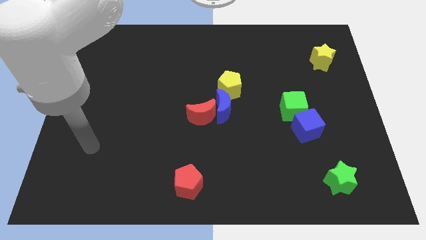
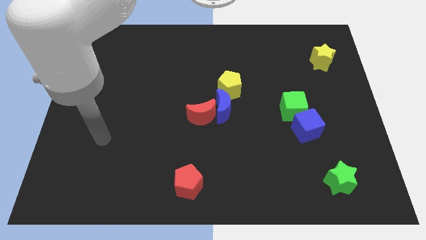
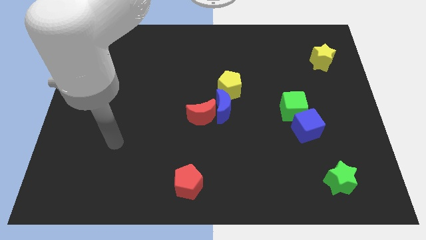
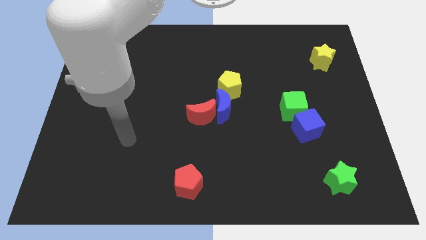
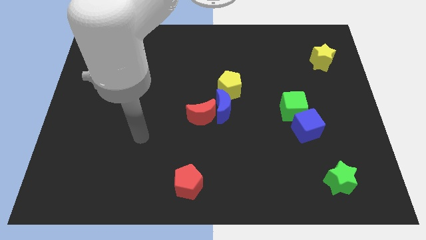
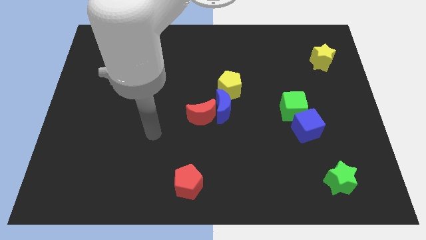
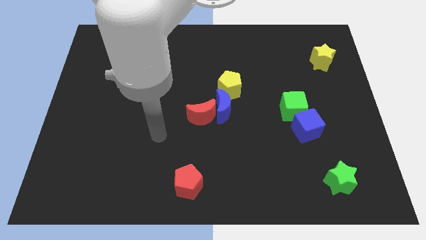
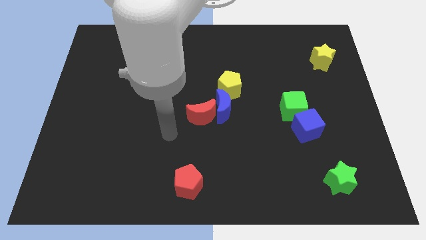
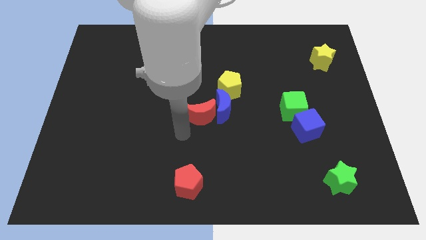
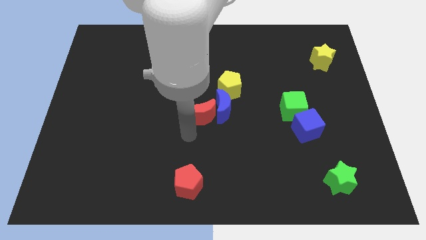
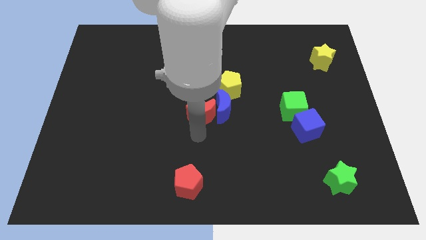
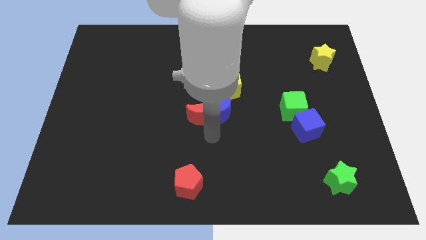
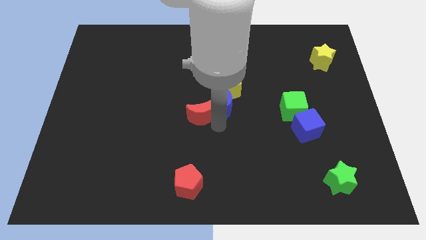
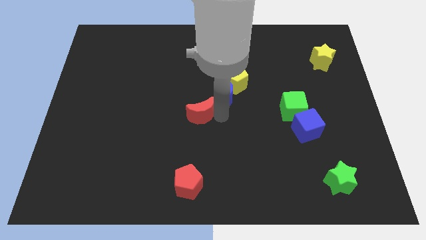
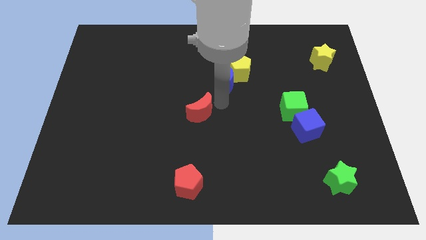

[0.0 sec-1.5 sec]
move the red moon away from the blue moon

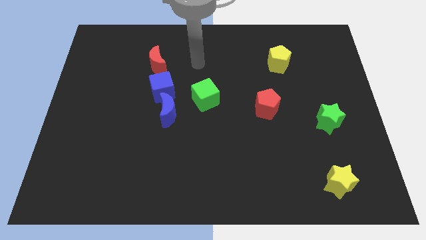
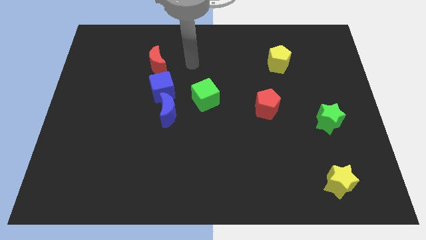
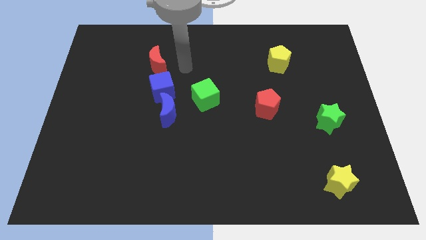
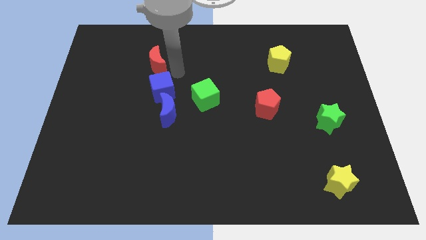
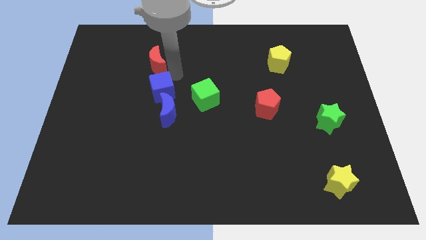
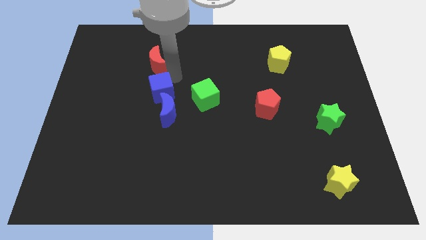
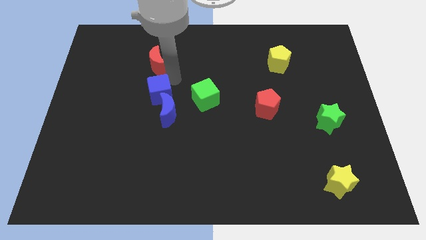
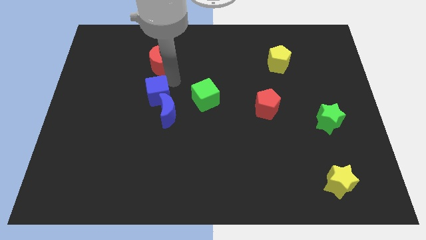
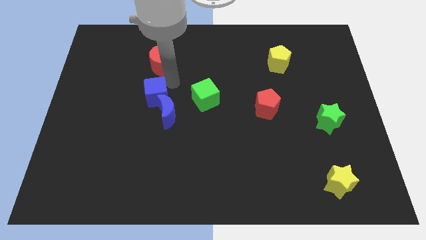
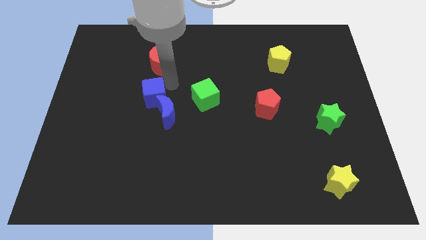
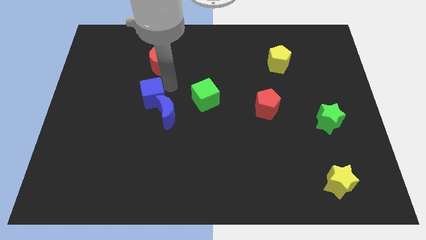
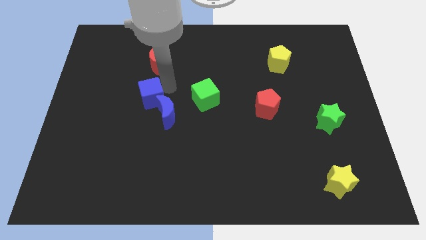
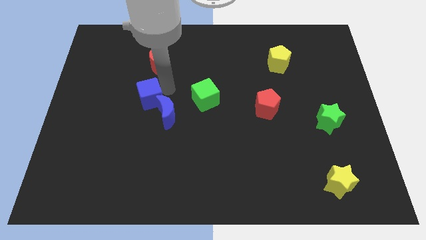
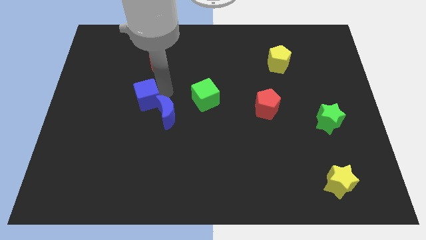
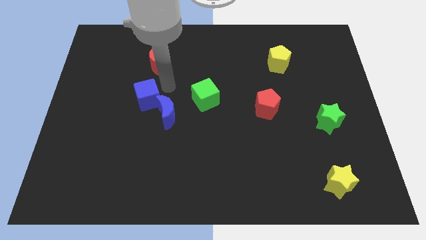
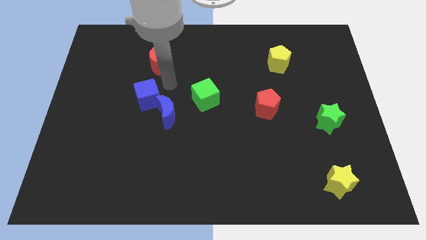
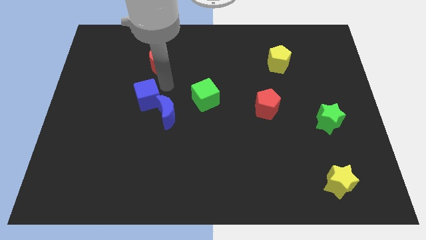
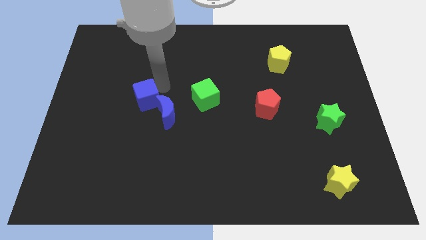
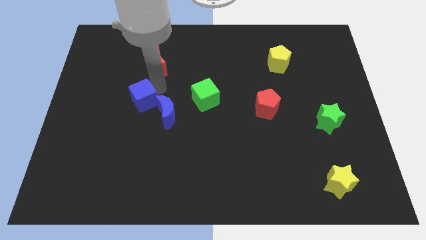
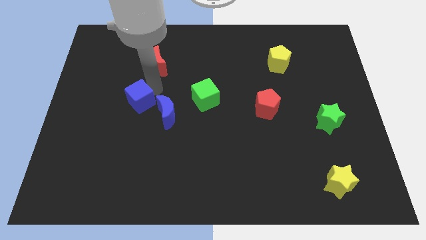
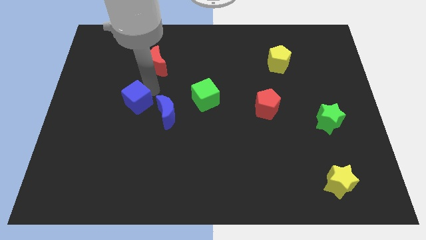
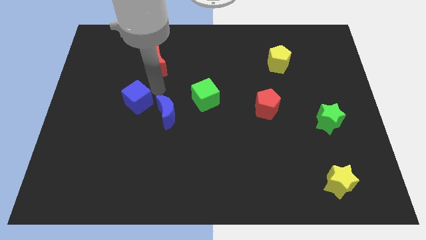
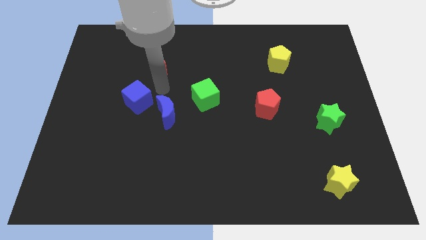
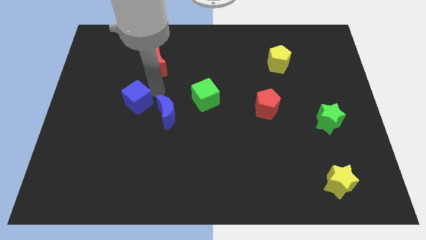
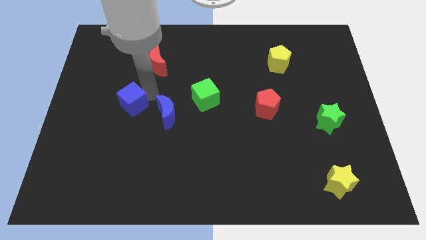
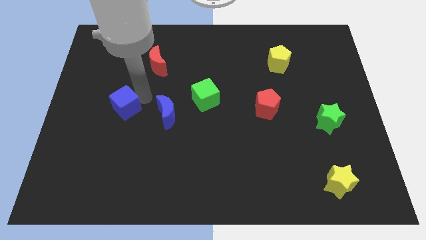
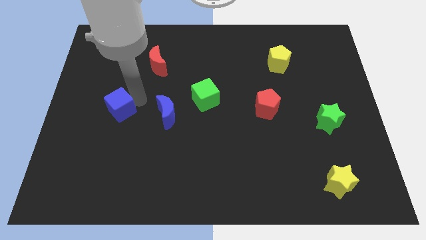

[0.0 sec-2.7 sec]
separate the blue cube from the blue moon and red moon

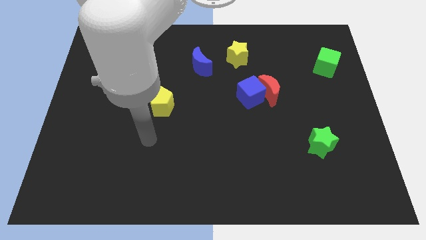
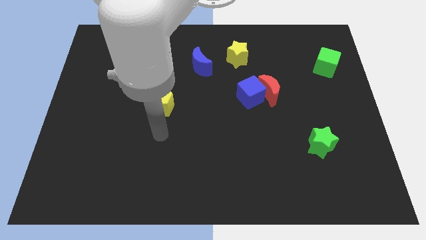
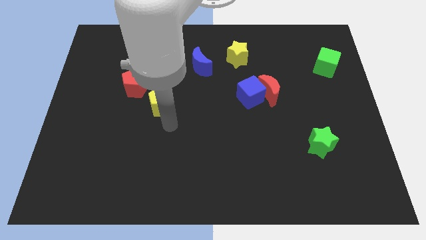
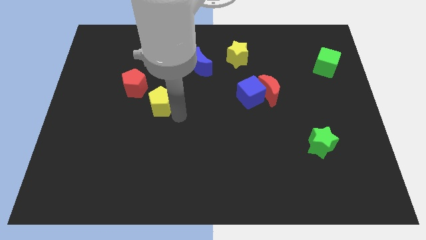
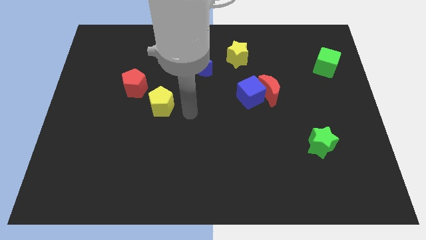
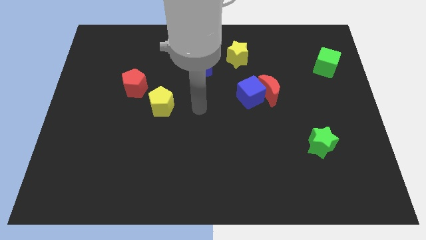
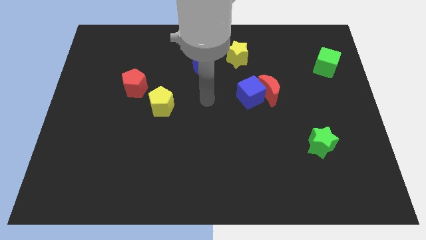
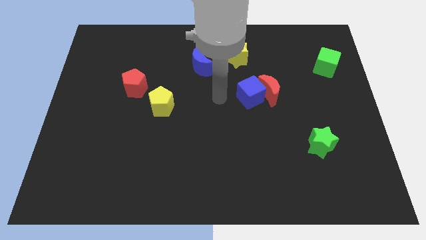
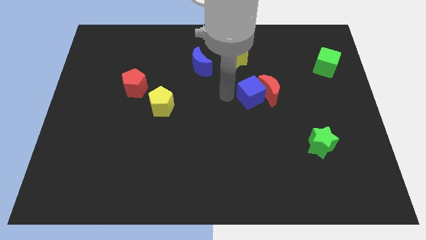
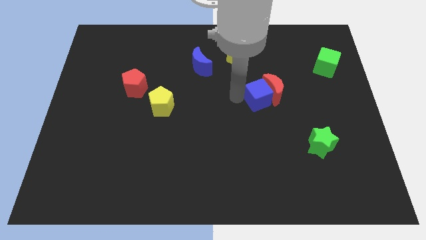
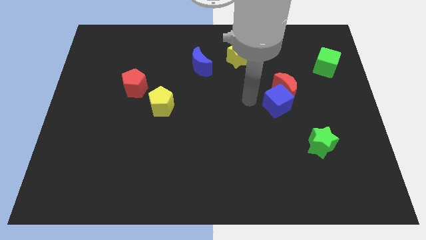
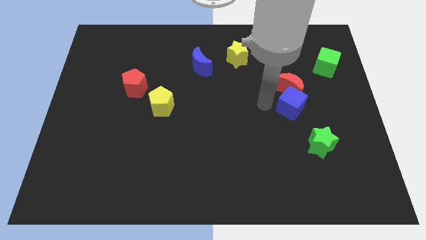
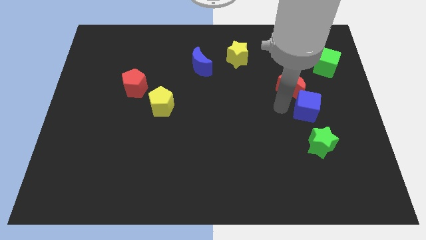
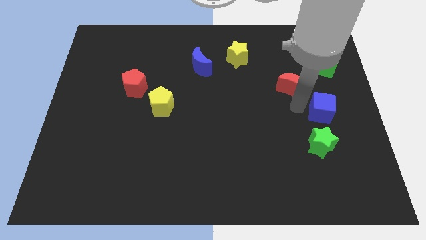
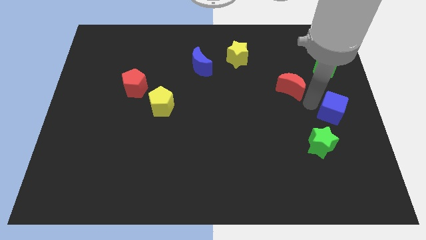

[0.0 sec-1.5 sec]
move the red moon away from the blue cube

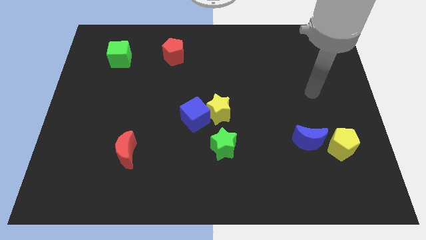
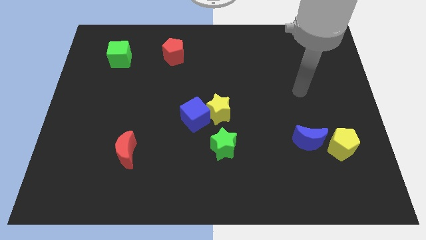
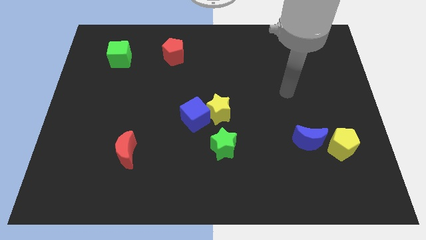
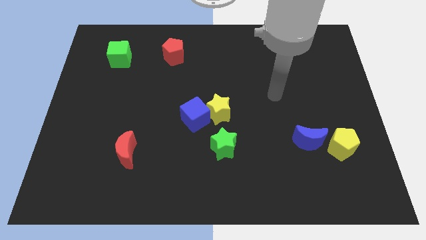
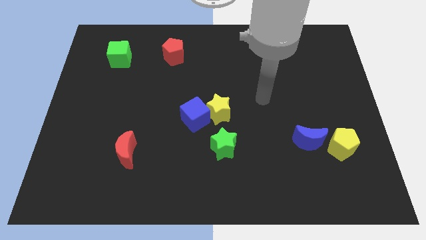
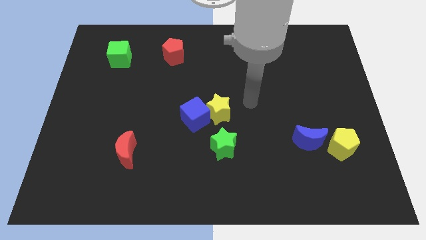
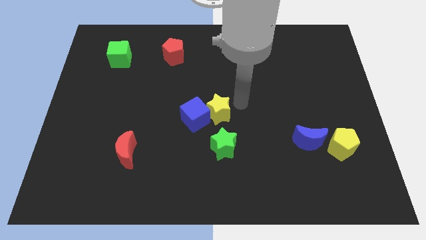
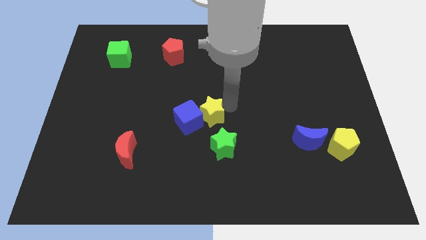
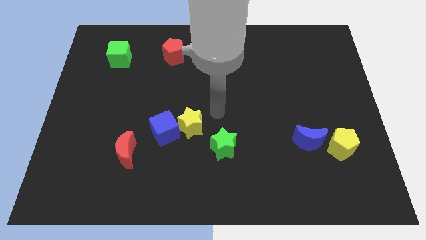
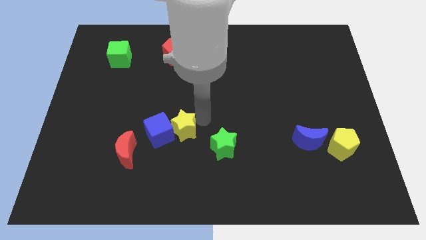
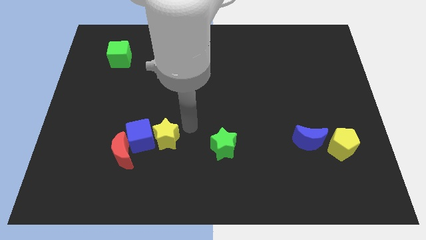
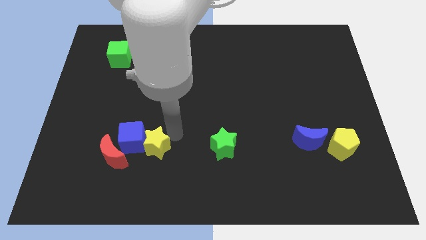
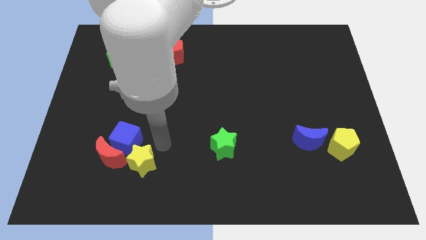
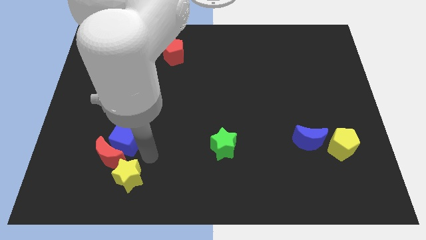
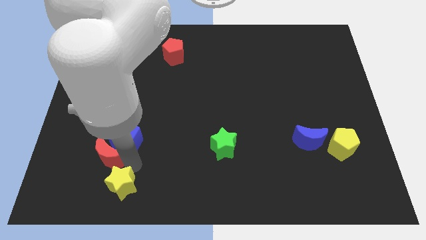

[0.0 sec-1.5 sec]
separate the blue cube from the yellow star

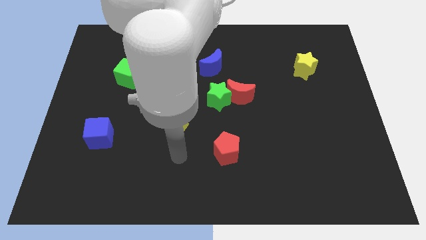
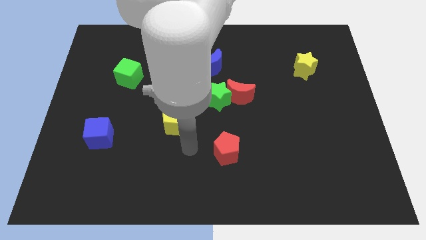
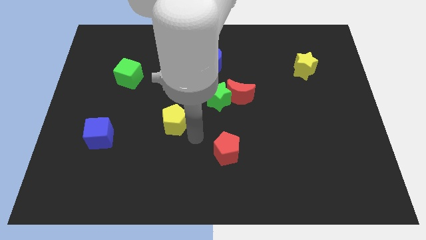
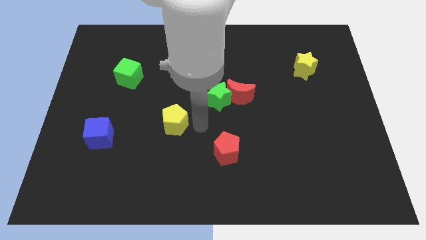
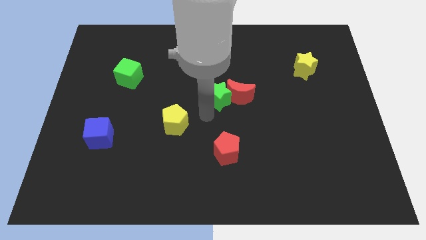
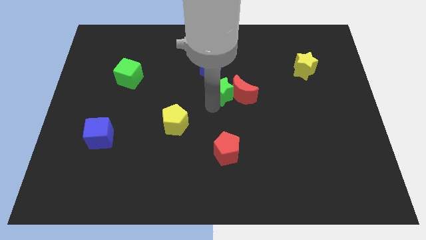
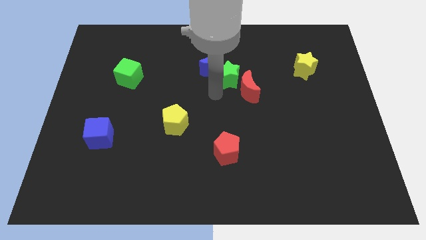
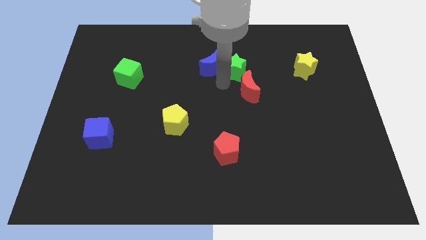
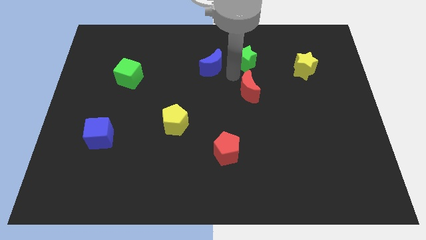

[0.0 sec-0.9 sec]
separate the red moon from the green star

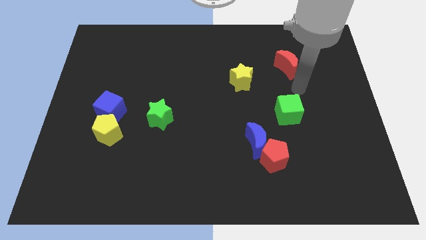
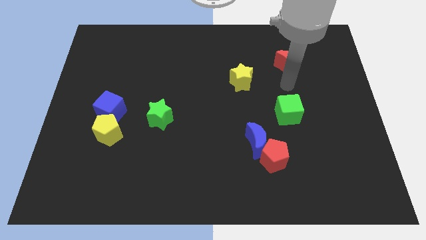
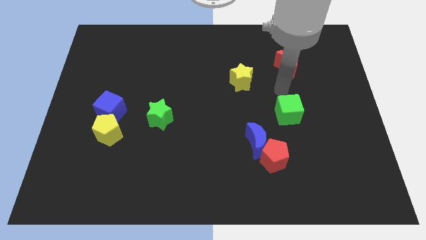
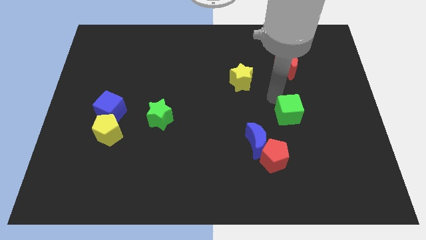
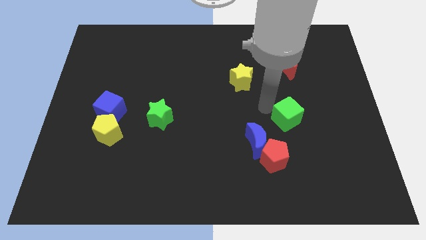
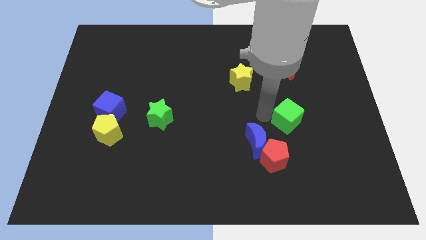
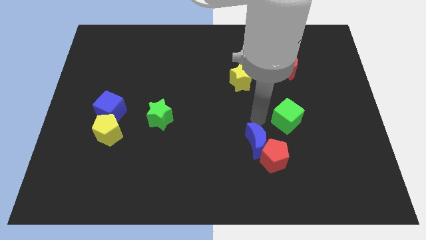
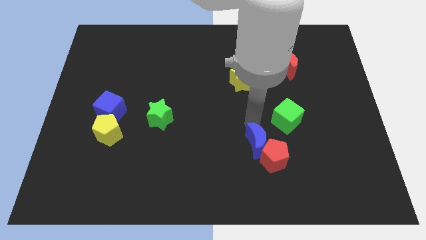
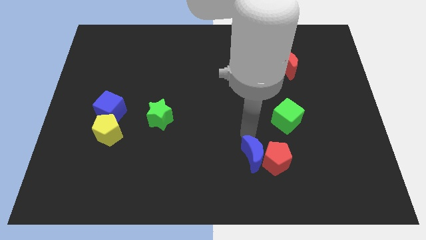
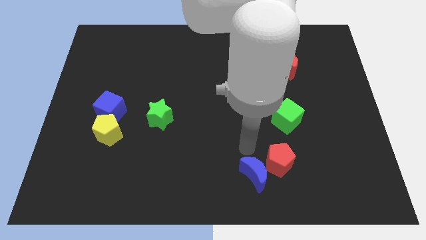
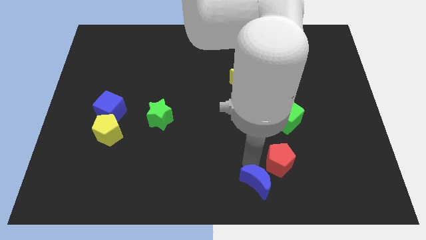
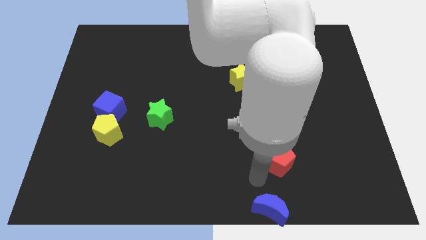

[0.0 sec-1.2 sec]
separate the red pentagon from the blue moon
